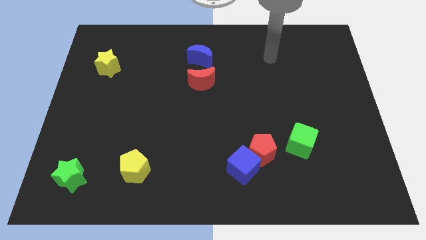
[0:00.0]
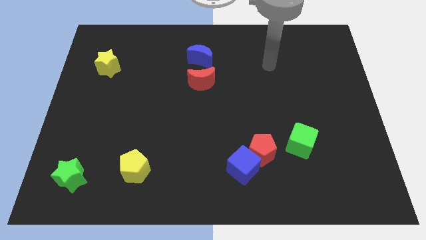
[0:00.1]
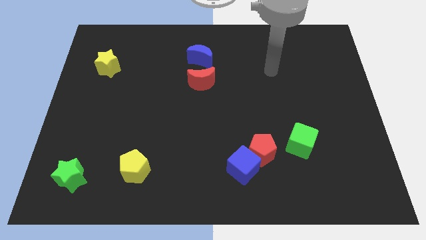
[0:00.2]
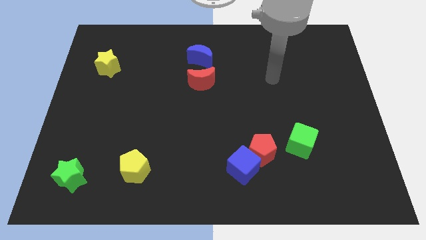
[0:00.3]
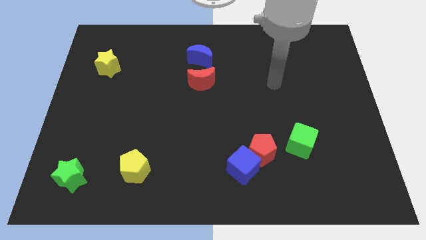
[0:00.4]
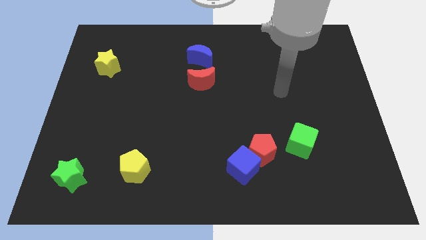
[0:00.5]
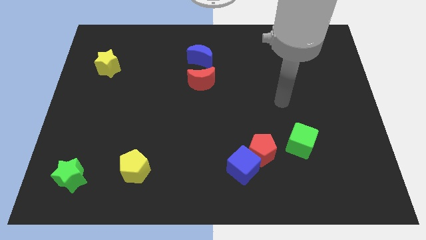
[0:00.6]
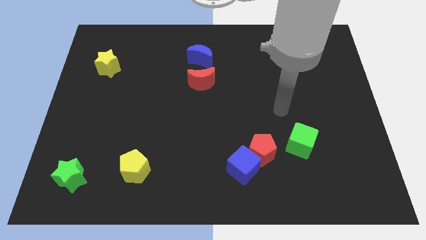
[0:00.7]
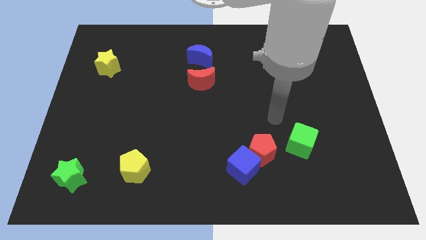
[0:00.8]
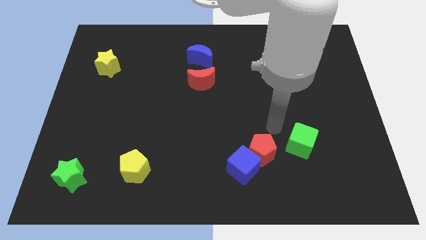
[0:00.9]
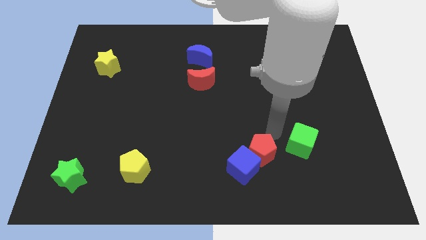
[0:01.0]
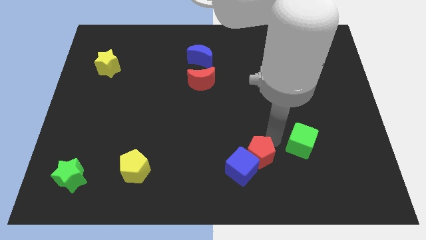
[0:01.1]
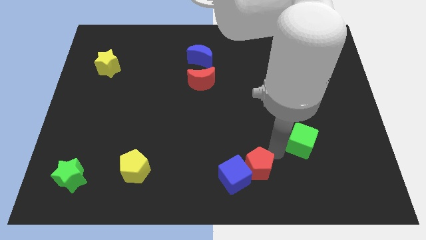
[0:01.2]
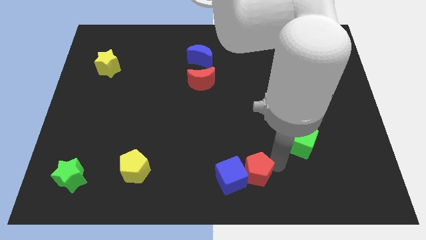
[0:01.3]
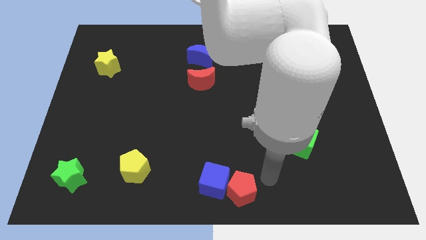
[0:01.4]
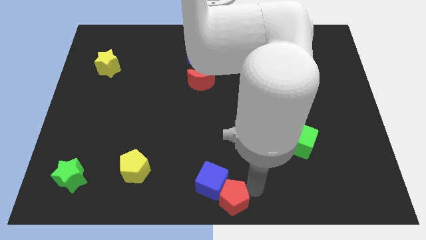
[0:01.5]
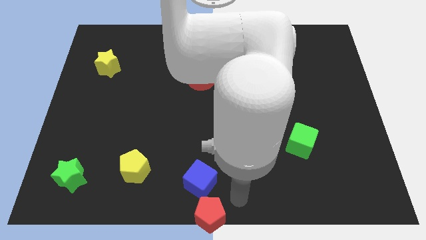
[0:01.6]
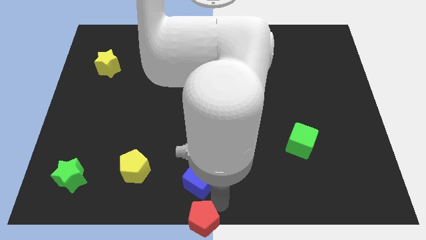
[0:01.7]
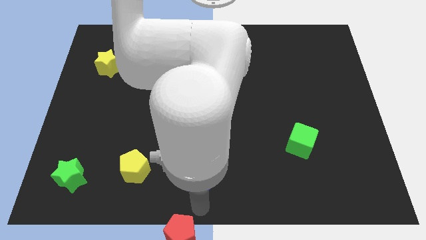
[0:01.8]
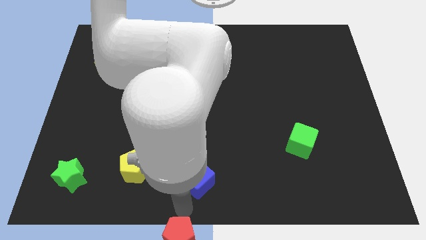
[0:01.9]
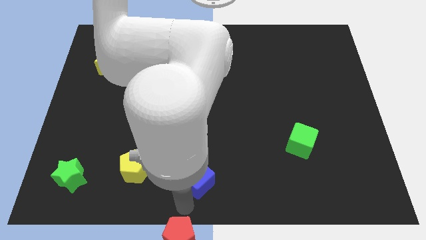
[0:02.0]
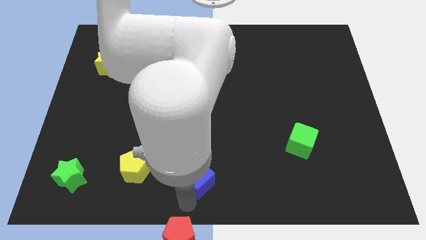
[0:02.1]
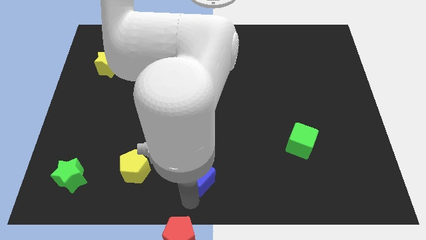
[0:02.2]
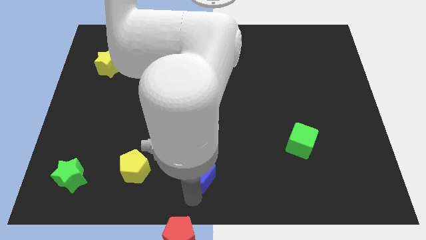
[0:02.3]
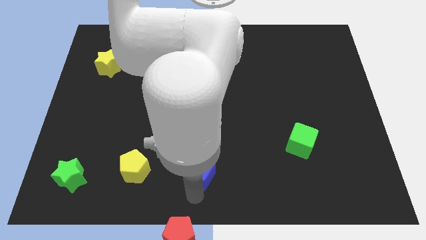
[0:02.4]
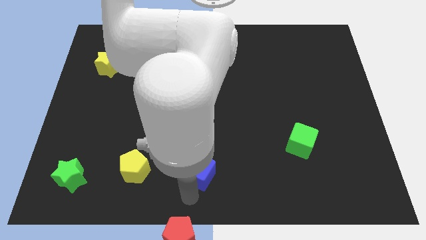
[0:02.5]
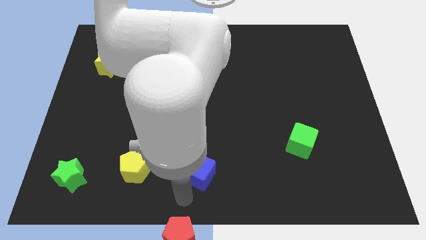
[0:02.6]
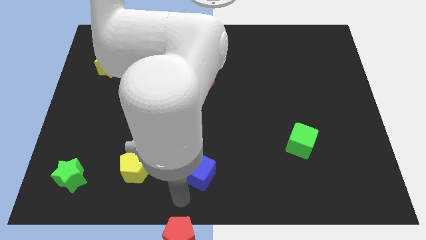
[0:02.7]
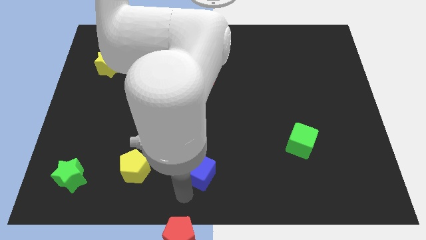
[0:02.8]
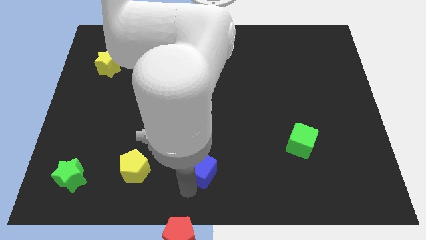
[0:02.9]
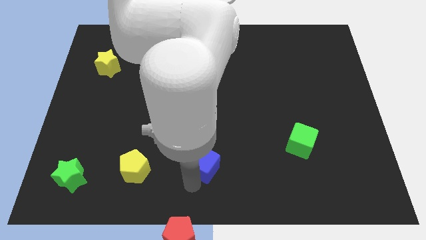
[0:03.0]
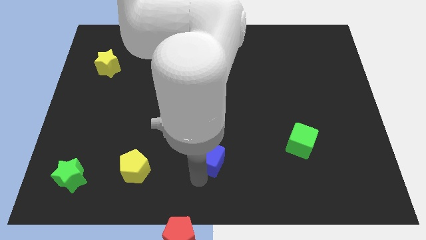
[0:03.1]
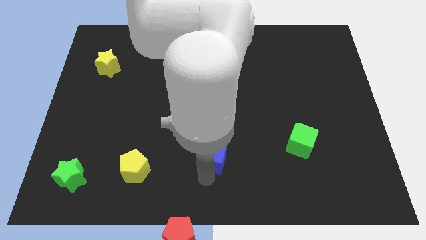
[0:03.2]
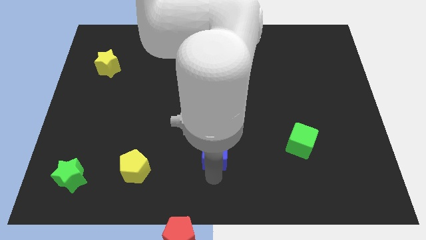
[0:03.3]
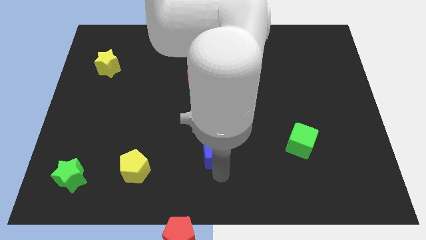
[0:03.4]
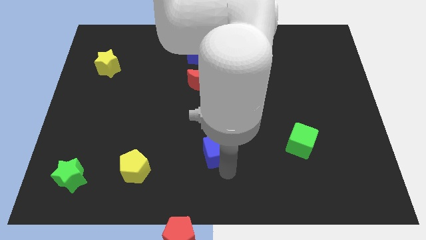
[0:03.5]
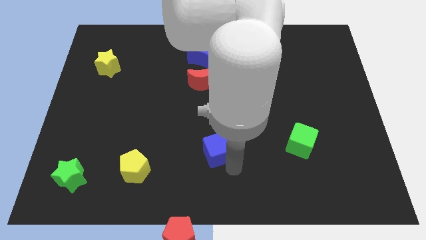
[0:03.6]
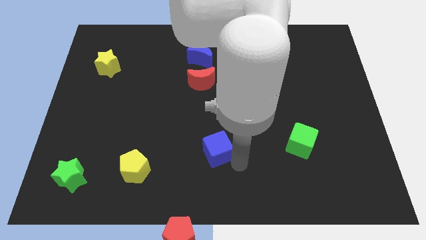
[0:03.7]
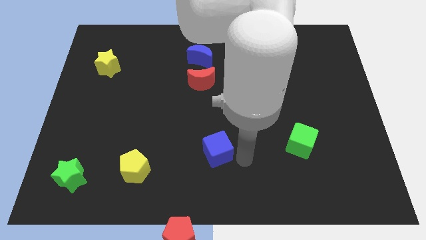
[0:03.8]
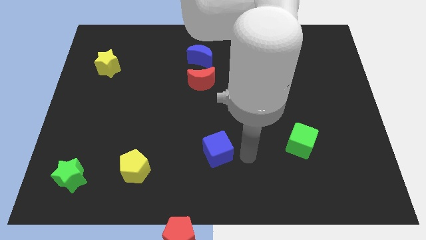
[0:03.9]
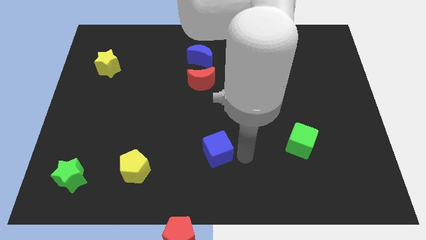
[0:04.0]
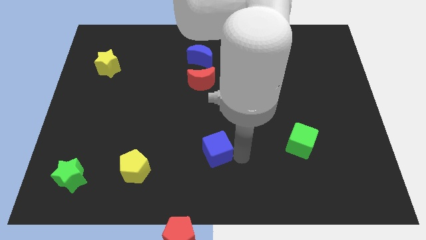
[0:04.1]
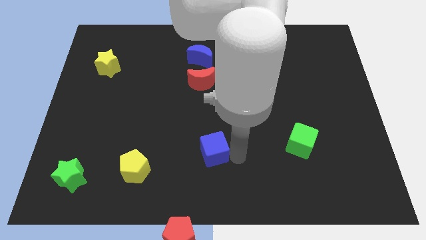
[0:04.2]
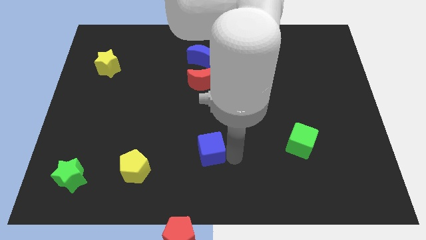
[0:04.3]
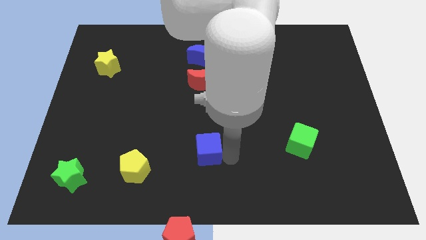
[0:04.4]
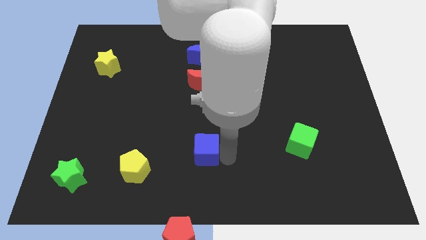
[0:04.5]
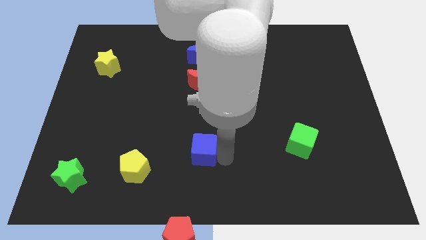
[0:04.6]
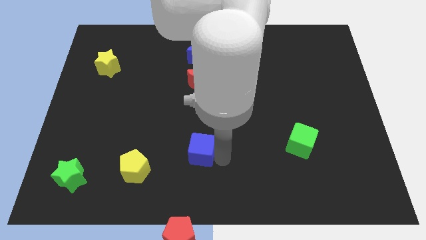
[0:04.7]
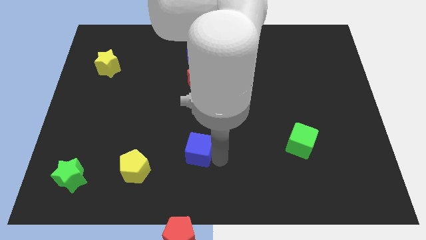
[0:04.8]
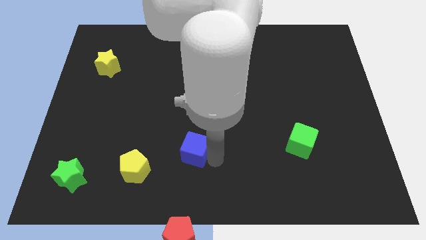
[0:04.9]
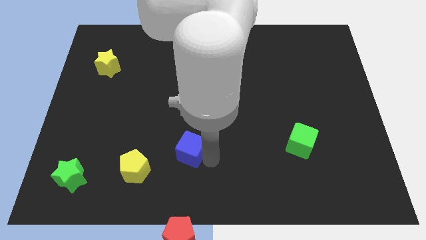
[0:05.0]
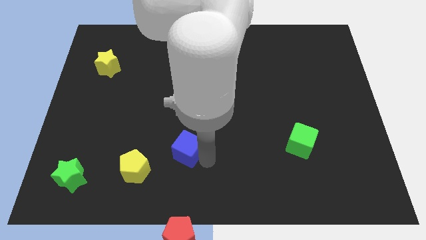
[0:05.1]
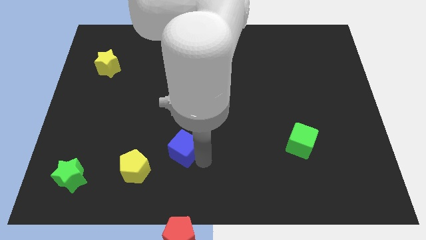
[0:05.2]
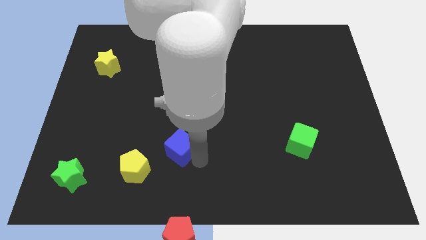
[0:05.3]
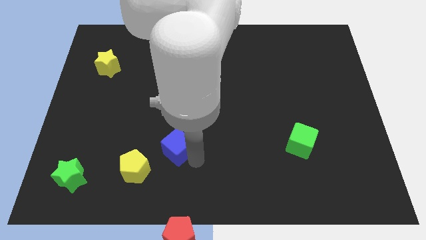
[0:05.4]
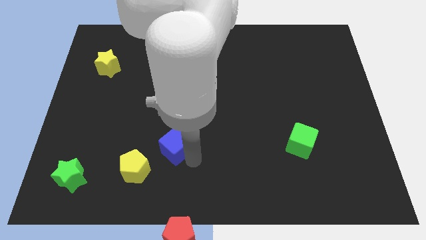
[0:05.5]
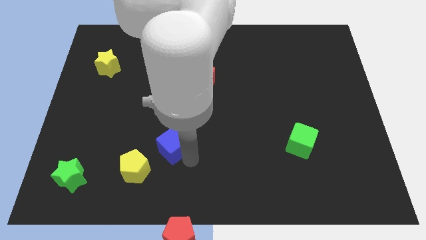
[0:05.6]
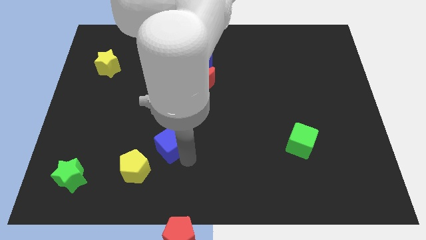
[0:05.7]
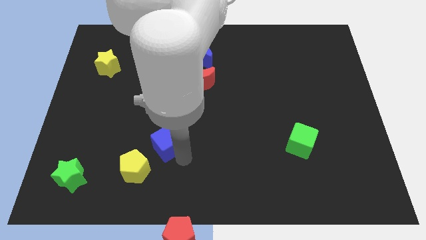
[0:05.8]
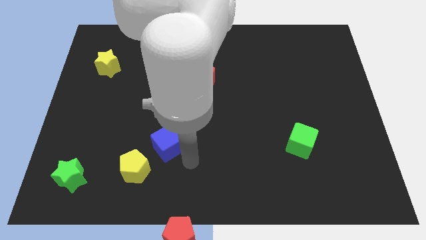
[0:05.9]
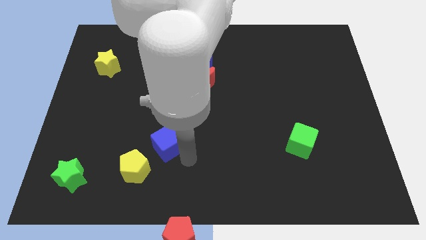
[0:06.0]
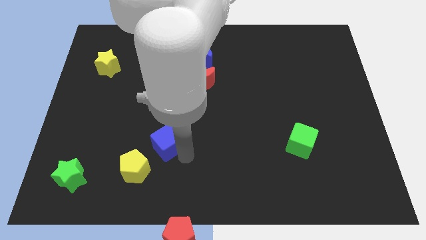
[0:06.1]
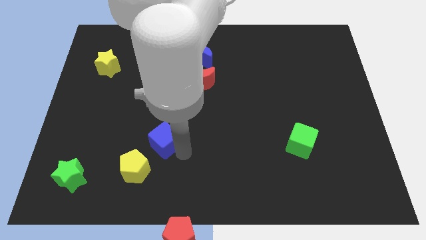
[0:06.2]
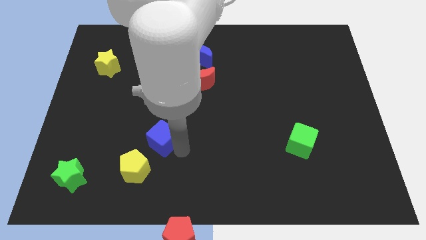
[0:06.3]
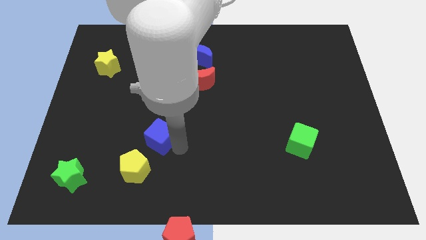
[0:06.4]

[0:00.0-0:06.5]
push the blue cube to the top side of the yellow pentagon

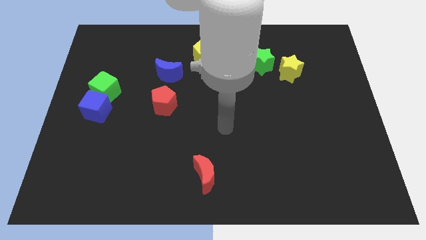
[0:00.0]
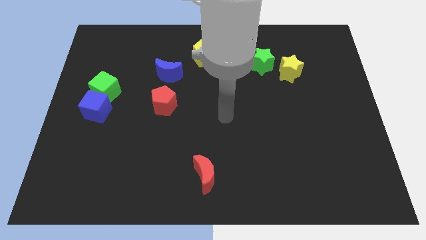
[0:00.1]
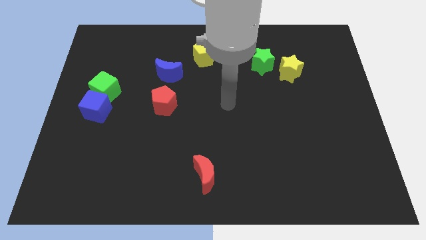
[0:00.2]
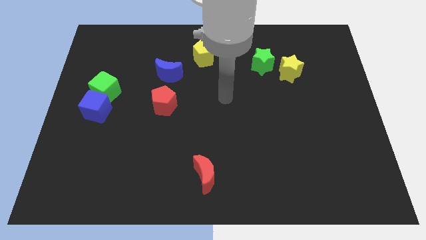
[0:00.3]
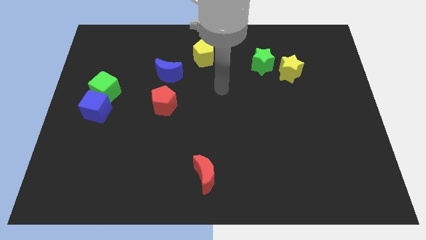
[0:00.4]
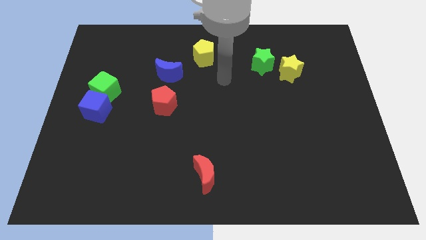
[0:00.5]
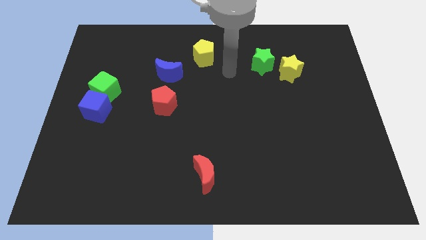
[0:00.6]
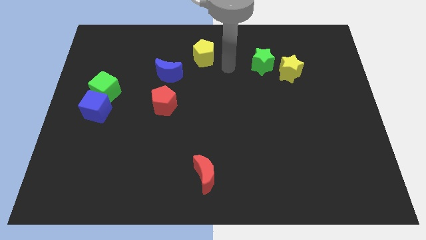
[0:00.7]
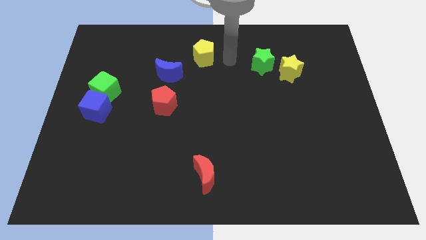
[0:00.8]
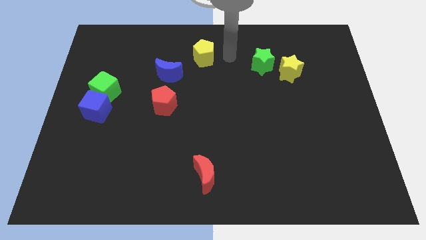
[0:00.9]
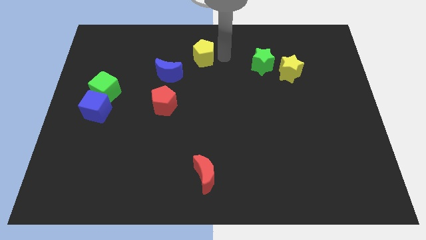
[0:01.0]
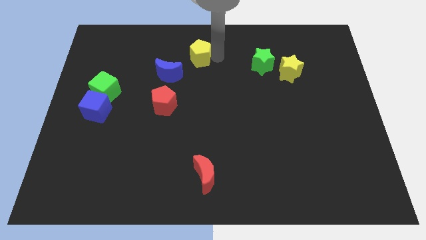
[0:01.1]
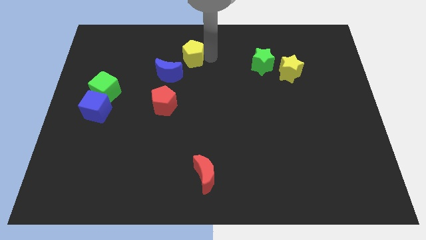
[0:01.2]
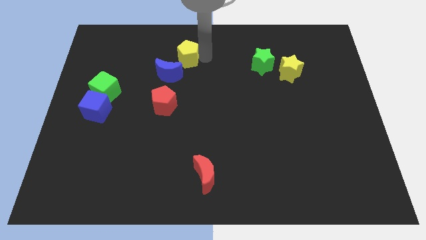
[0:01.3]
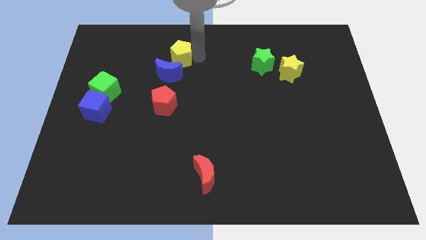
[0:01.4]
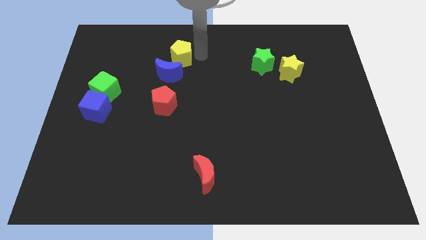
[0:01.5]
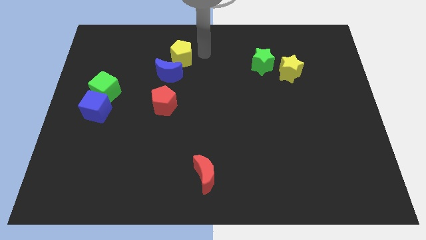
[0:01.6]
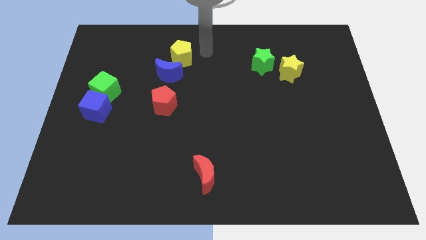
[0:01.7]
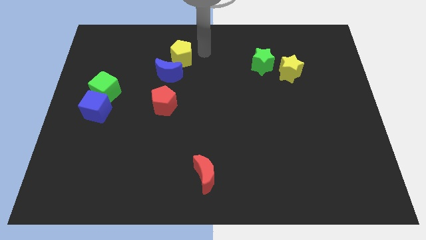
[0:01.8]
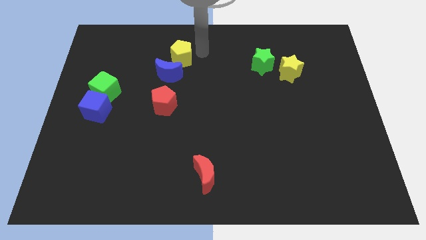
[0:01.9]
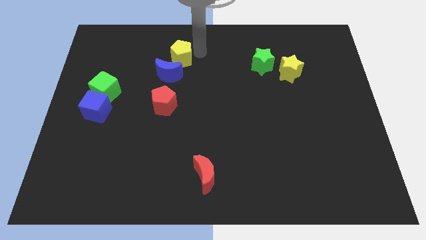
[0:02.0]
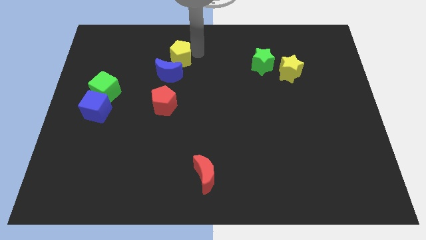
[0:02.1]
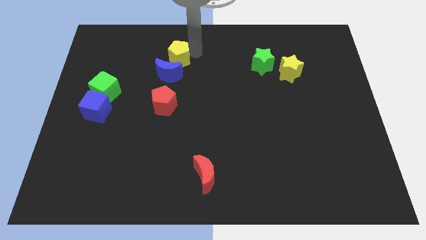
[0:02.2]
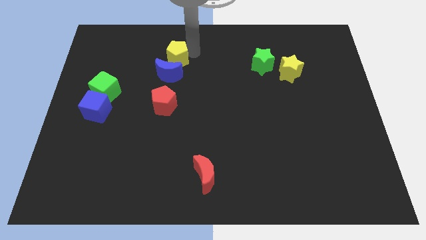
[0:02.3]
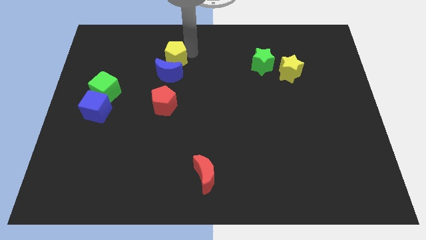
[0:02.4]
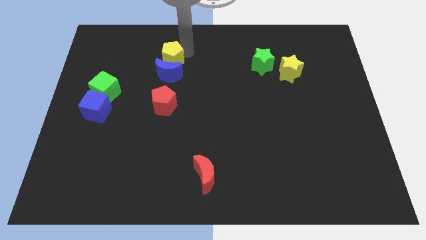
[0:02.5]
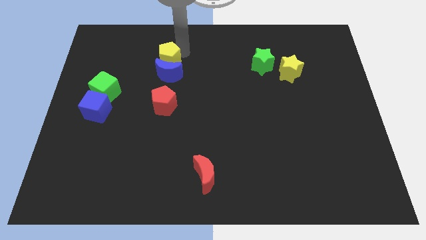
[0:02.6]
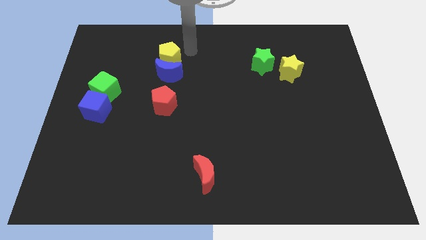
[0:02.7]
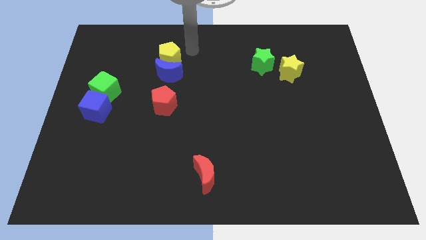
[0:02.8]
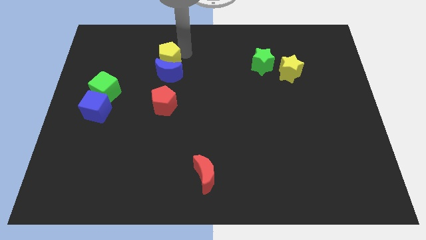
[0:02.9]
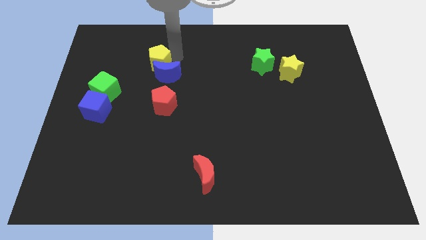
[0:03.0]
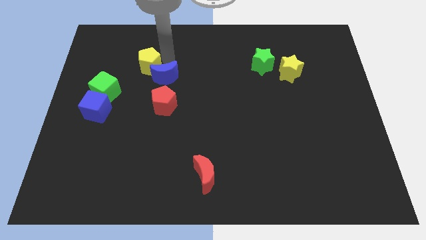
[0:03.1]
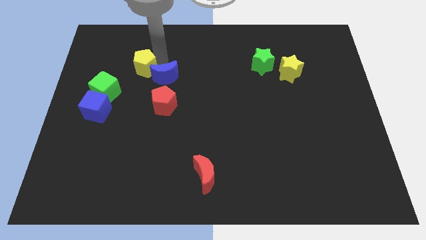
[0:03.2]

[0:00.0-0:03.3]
move the yellow pentagon to the top right of the green cube
